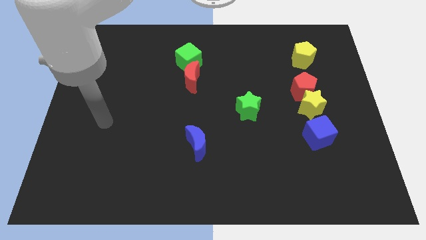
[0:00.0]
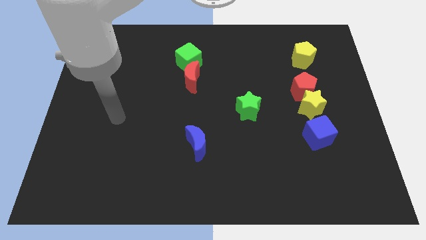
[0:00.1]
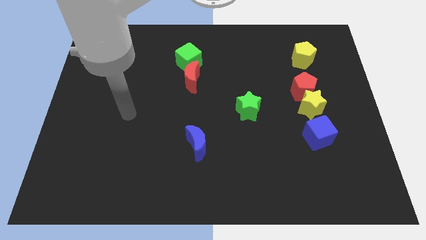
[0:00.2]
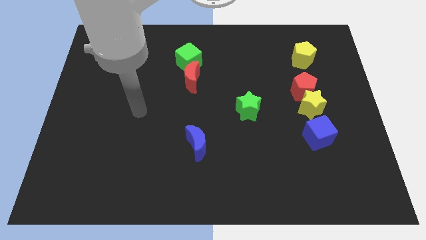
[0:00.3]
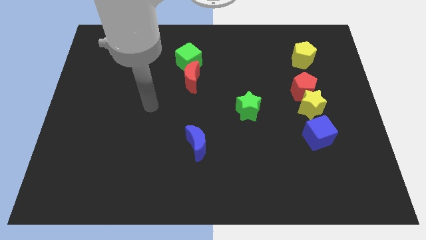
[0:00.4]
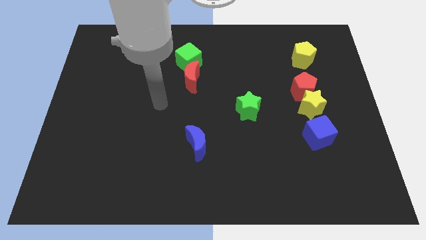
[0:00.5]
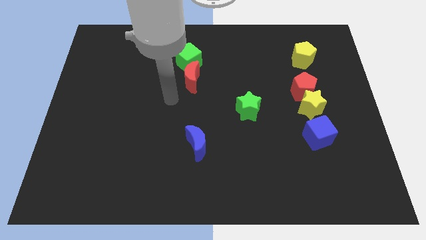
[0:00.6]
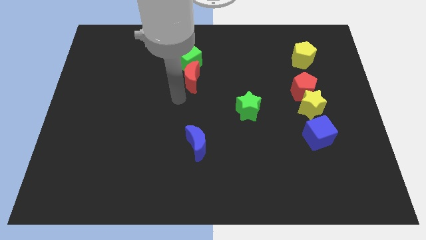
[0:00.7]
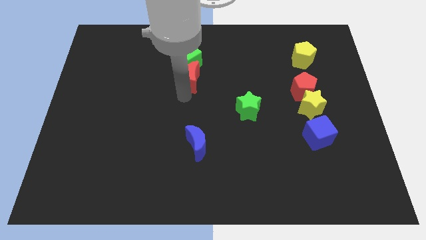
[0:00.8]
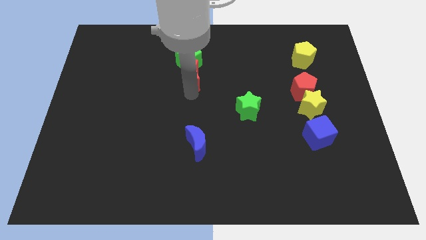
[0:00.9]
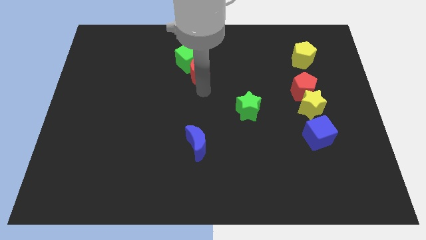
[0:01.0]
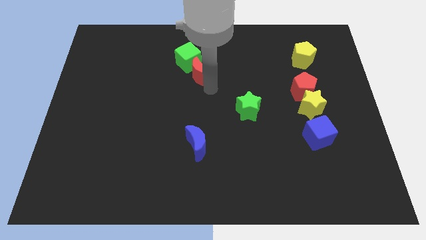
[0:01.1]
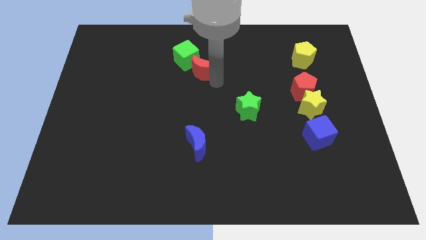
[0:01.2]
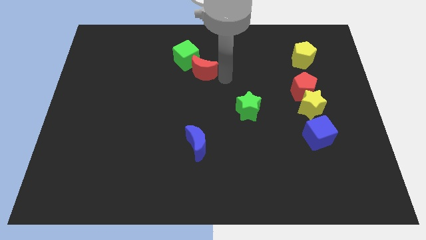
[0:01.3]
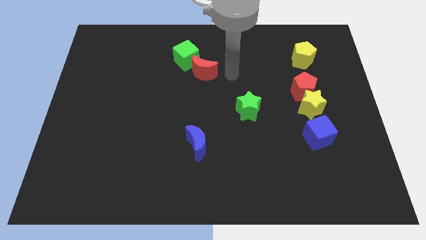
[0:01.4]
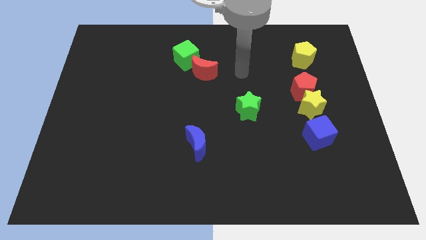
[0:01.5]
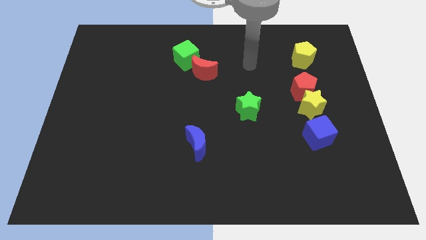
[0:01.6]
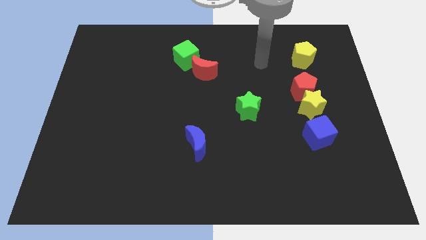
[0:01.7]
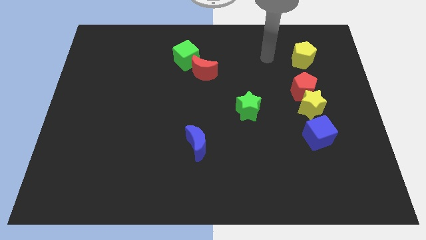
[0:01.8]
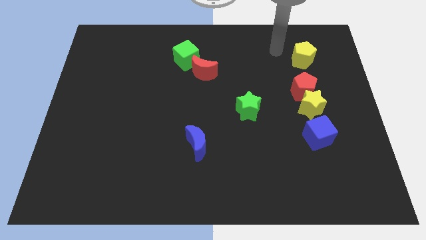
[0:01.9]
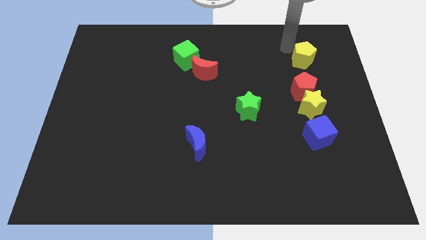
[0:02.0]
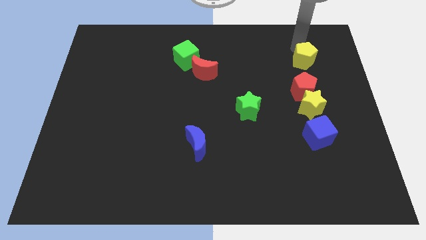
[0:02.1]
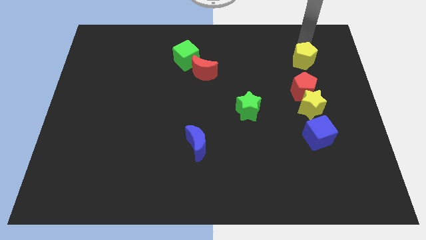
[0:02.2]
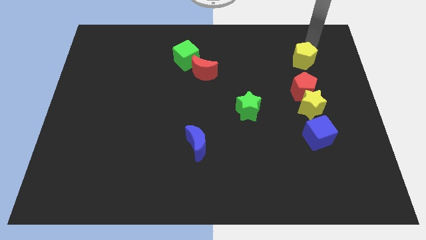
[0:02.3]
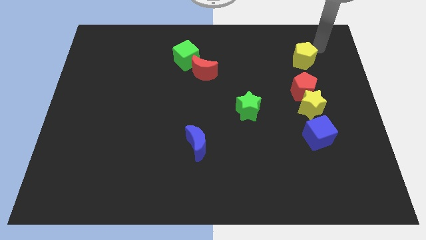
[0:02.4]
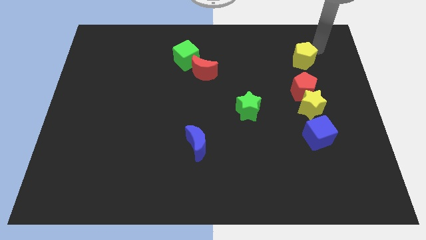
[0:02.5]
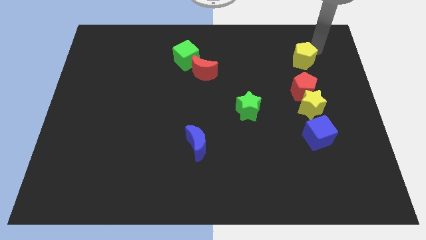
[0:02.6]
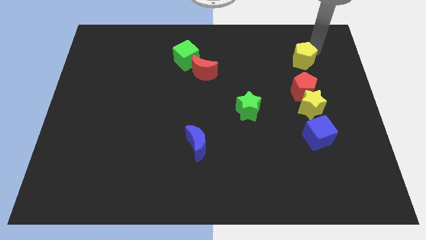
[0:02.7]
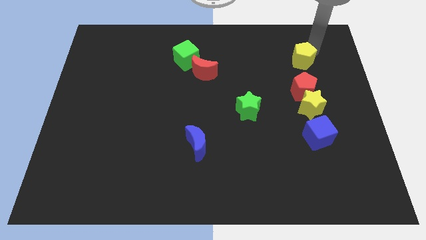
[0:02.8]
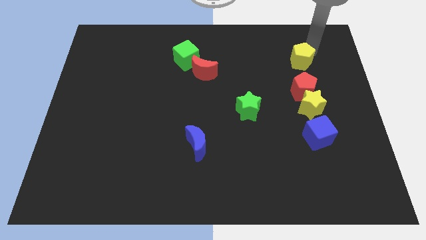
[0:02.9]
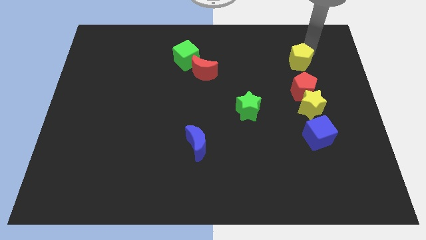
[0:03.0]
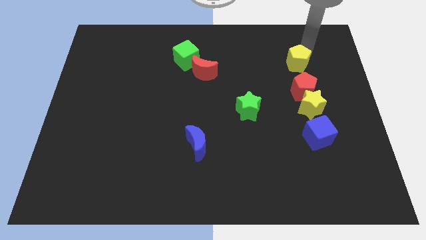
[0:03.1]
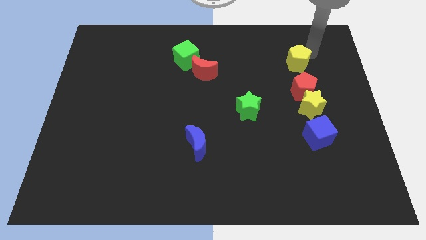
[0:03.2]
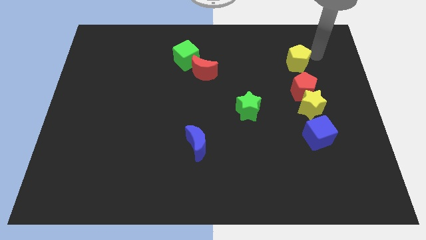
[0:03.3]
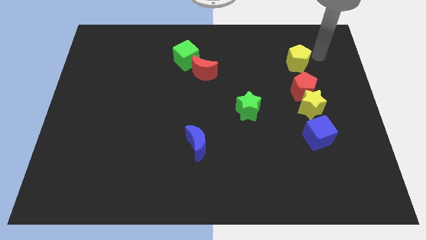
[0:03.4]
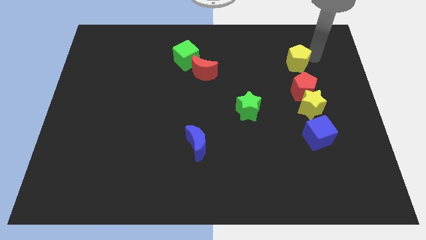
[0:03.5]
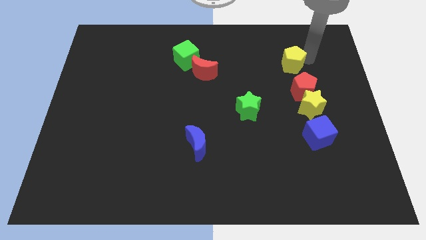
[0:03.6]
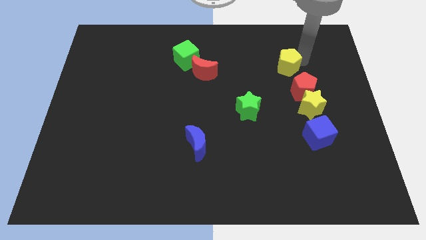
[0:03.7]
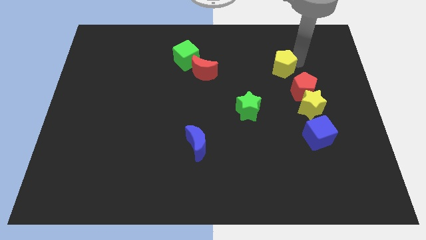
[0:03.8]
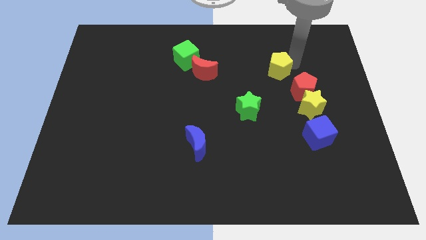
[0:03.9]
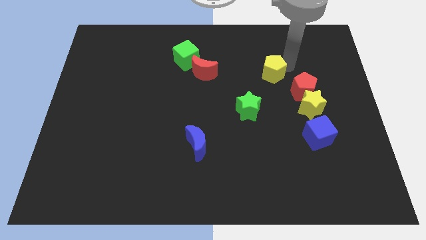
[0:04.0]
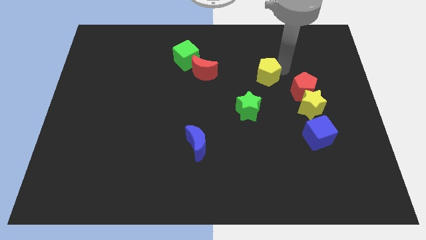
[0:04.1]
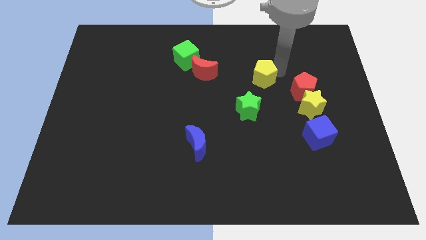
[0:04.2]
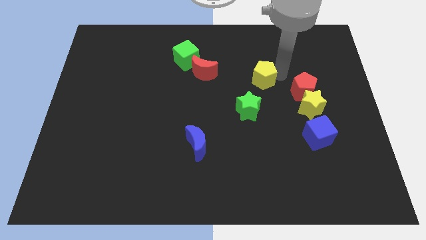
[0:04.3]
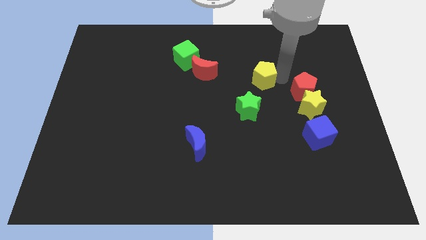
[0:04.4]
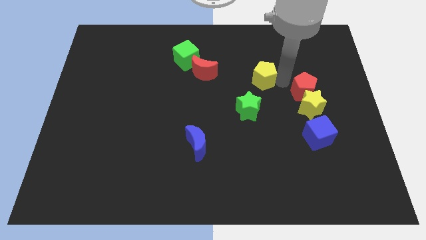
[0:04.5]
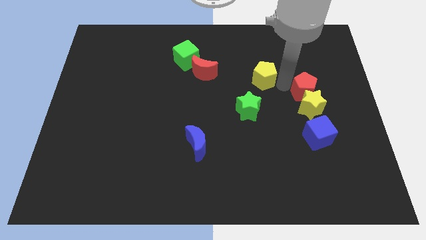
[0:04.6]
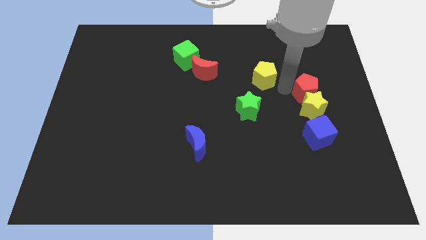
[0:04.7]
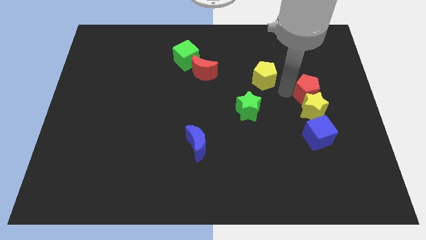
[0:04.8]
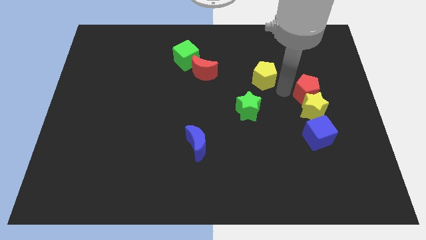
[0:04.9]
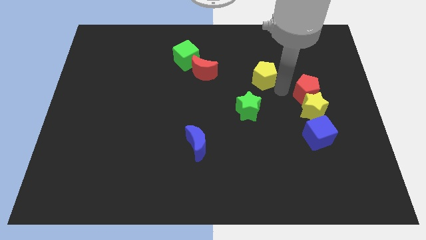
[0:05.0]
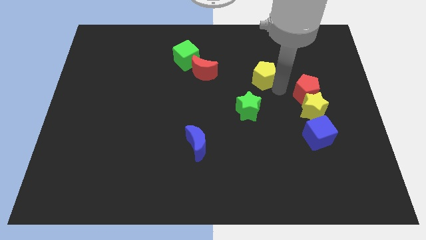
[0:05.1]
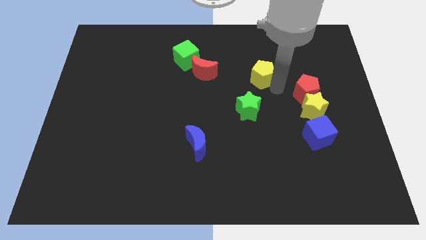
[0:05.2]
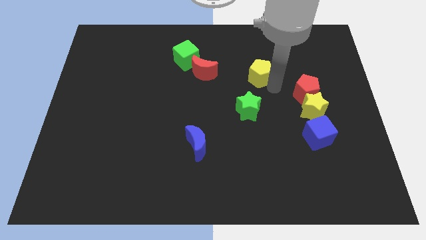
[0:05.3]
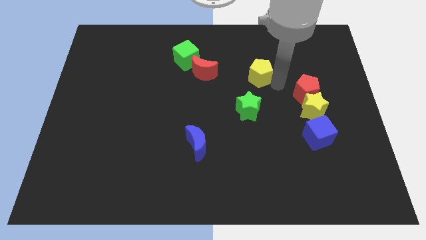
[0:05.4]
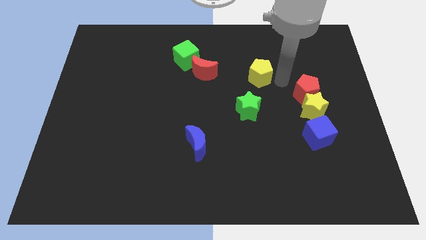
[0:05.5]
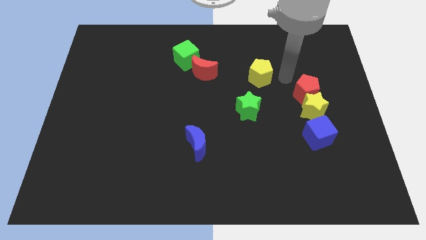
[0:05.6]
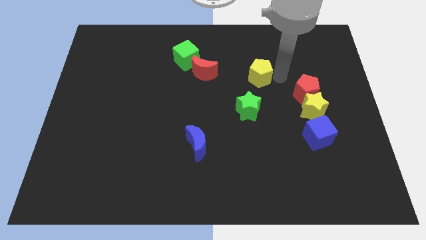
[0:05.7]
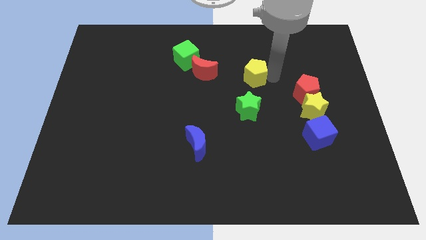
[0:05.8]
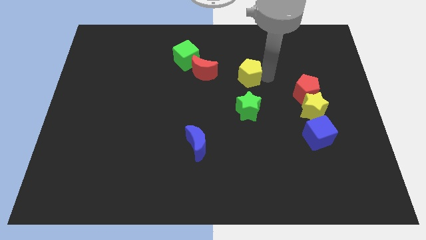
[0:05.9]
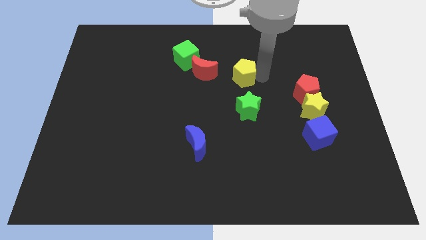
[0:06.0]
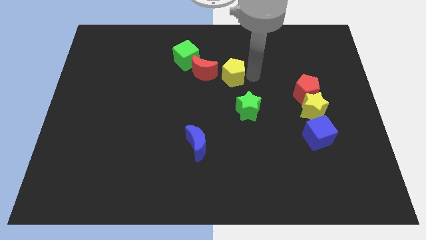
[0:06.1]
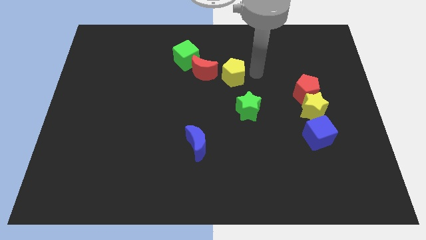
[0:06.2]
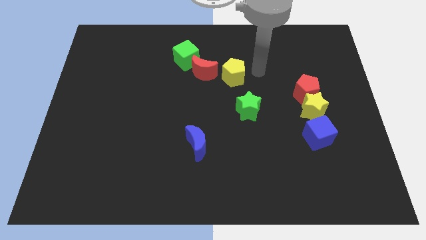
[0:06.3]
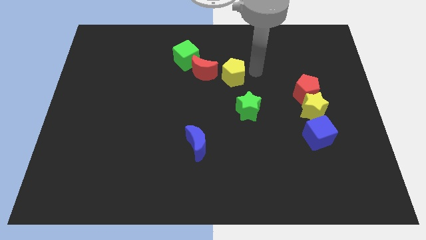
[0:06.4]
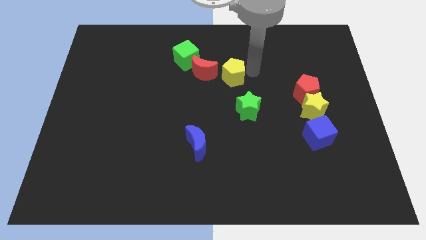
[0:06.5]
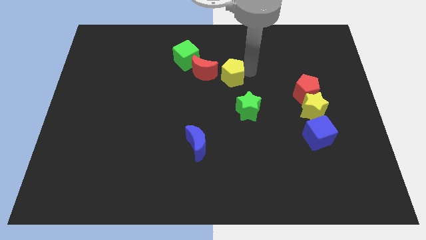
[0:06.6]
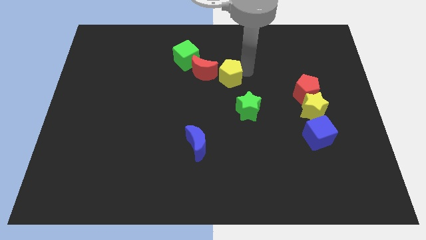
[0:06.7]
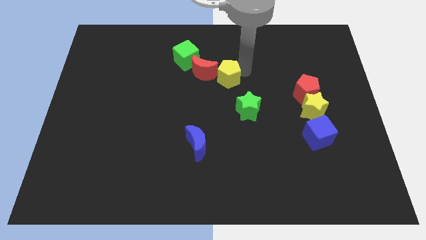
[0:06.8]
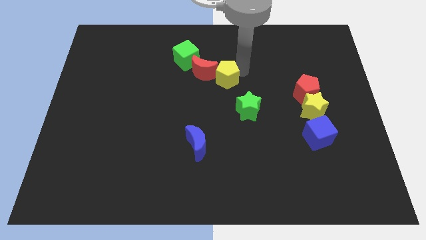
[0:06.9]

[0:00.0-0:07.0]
move the yellow pentagon towards the red moon

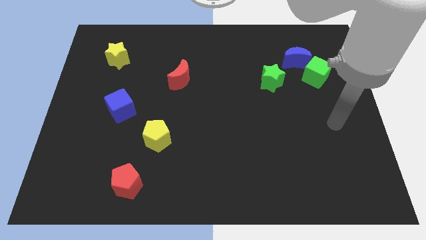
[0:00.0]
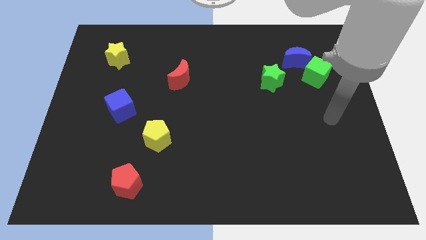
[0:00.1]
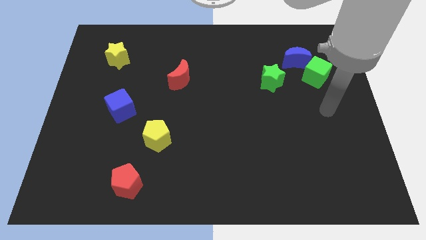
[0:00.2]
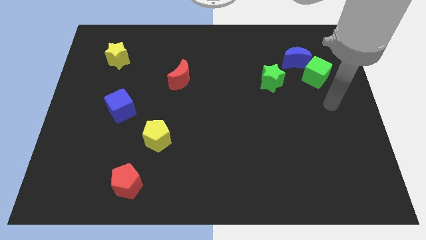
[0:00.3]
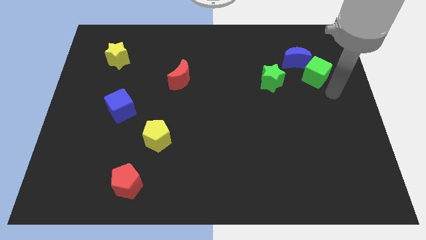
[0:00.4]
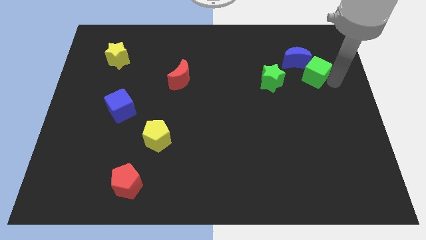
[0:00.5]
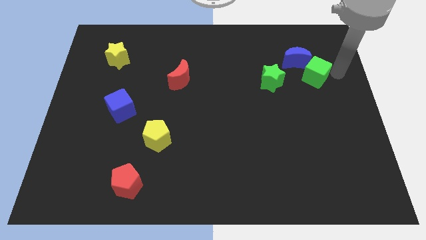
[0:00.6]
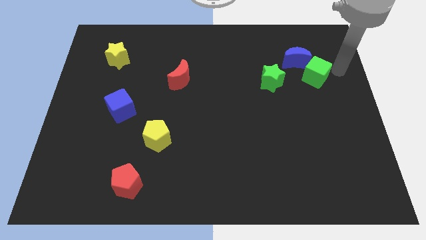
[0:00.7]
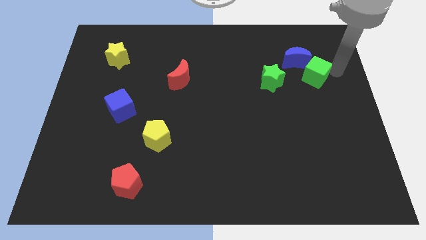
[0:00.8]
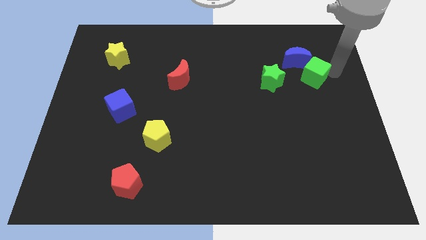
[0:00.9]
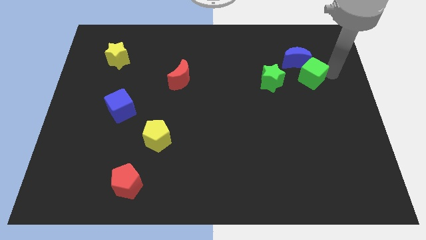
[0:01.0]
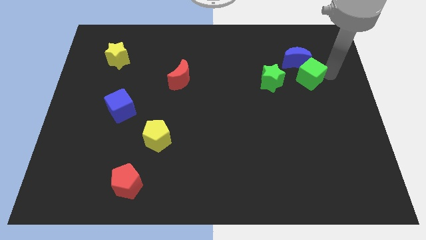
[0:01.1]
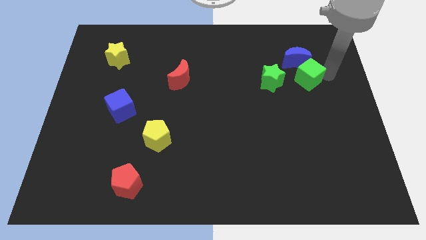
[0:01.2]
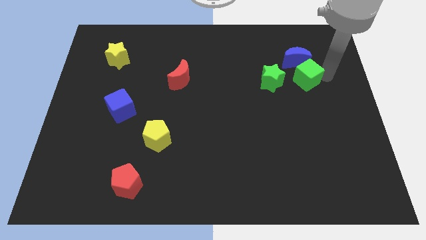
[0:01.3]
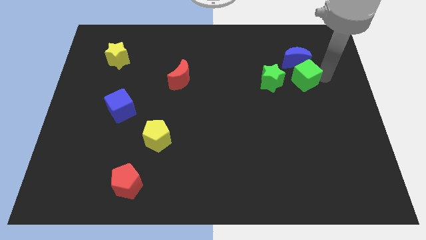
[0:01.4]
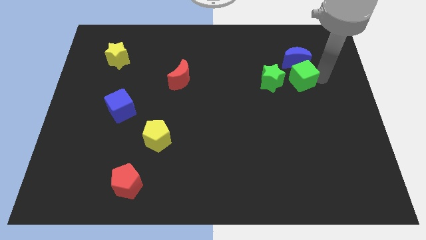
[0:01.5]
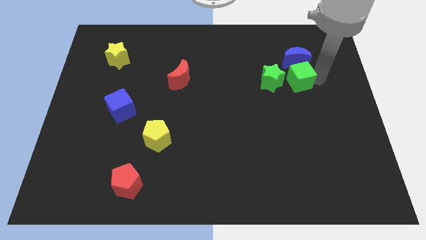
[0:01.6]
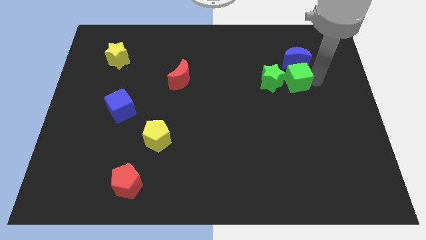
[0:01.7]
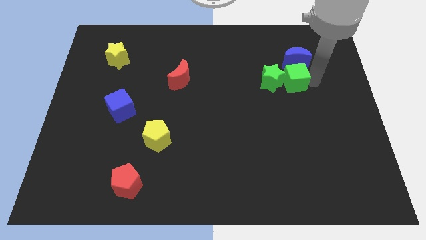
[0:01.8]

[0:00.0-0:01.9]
slide the green cube to the green star
